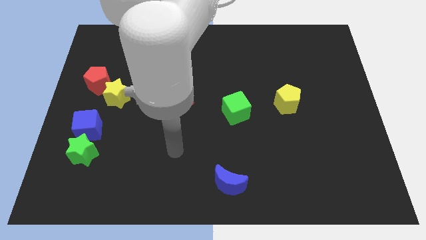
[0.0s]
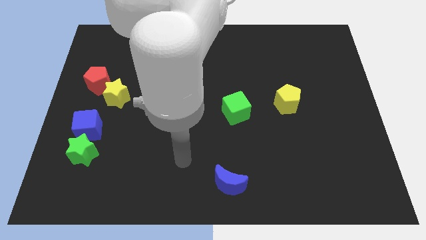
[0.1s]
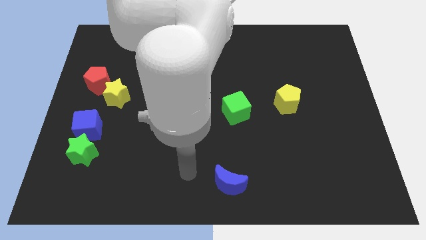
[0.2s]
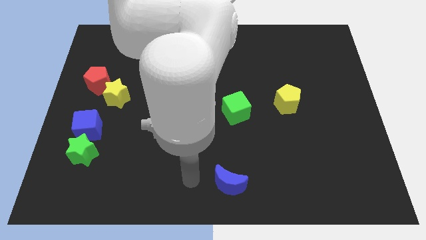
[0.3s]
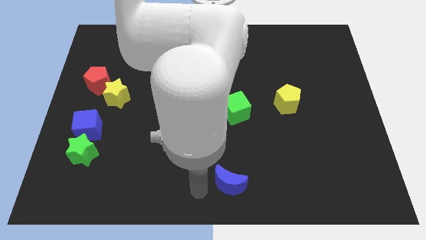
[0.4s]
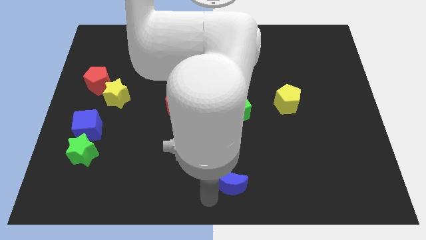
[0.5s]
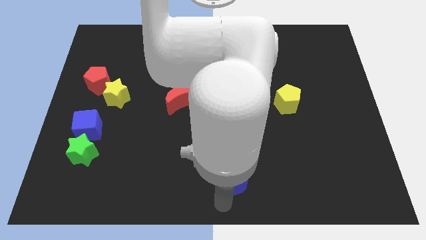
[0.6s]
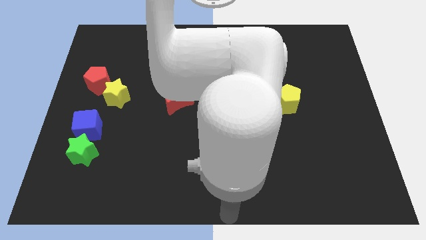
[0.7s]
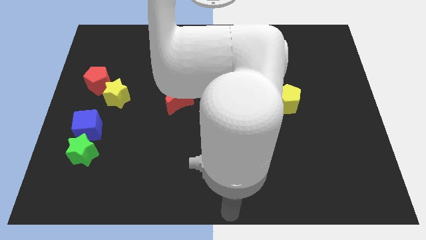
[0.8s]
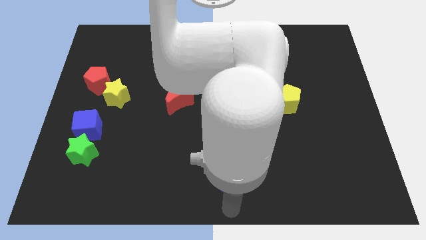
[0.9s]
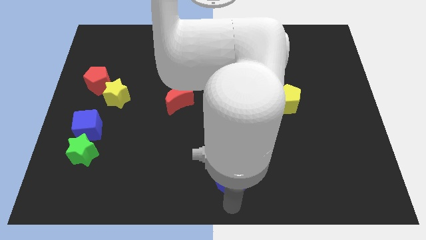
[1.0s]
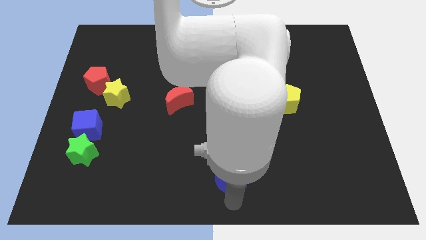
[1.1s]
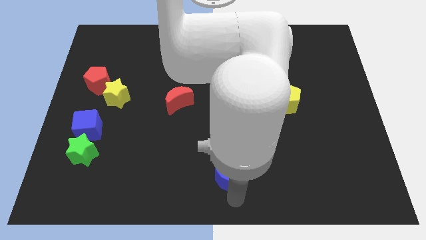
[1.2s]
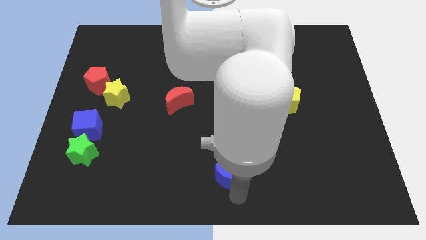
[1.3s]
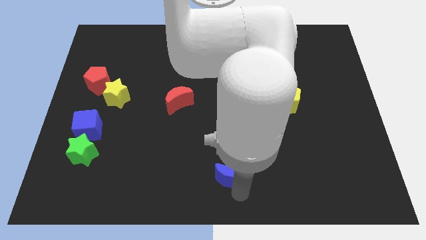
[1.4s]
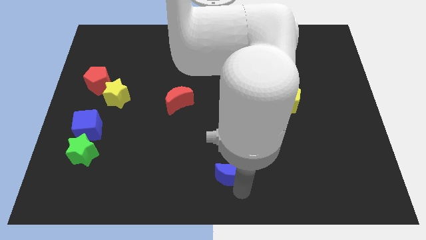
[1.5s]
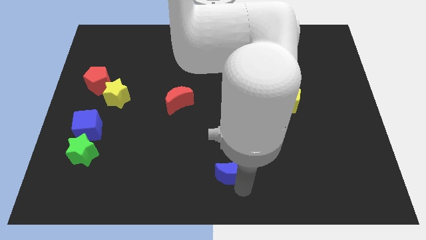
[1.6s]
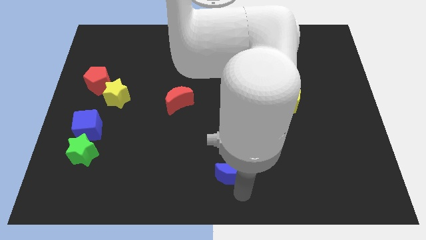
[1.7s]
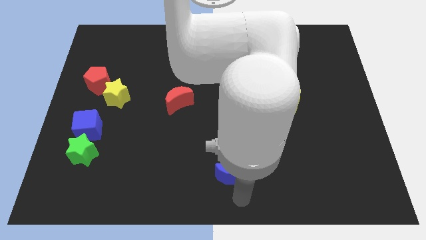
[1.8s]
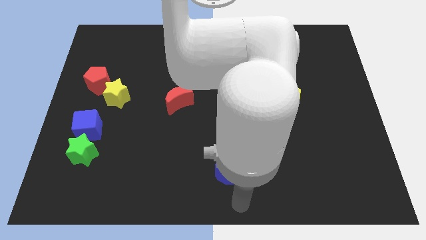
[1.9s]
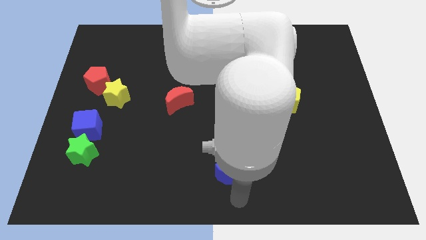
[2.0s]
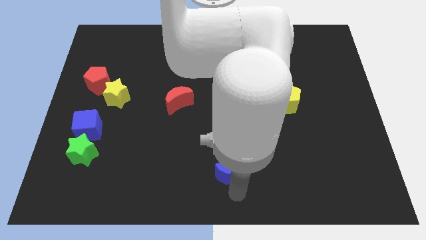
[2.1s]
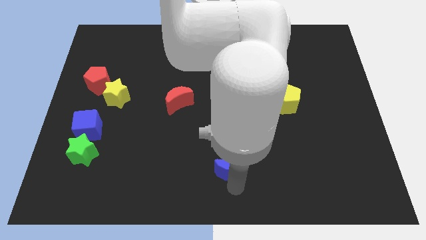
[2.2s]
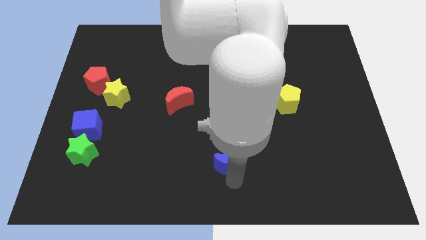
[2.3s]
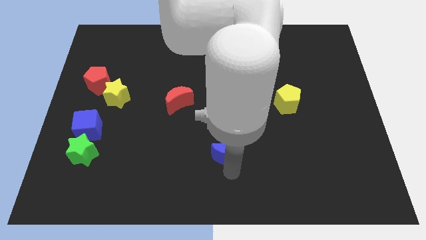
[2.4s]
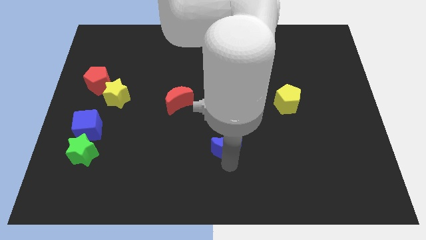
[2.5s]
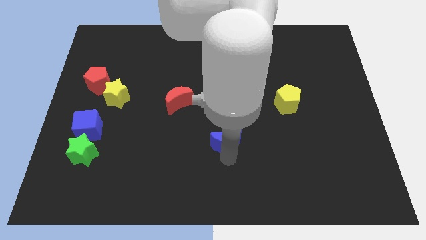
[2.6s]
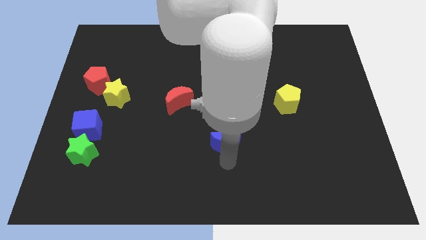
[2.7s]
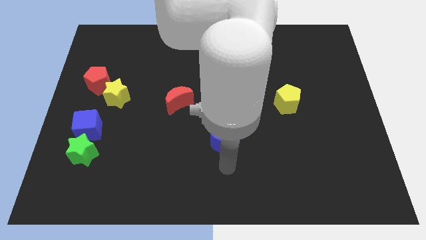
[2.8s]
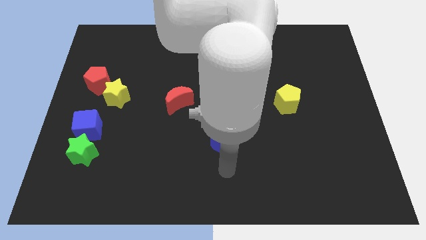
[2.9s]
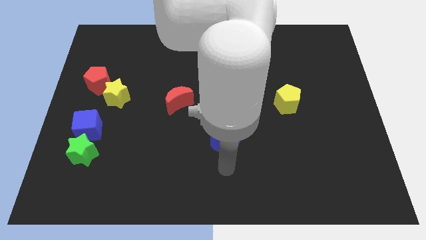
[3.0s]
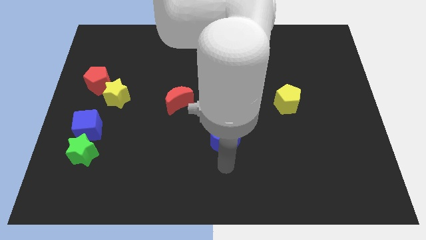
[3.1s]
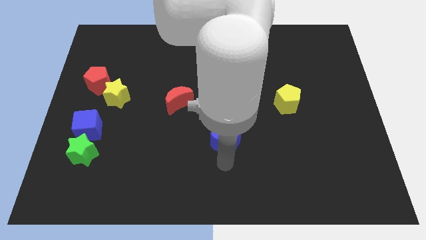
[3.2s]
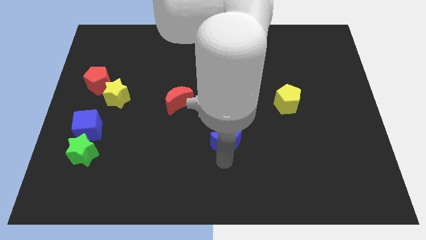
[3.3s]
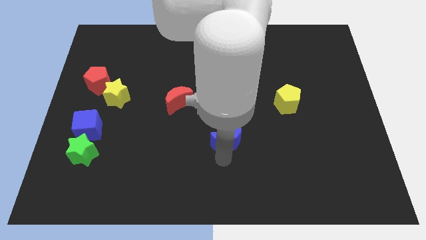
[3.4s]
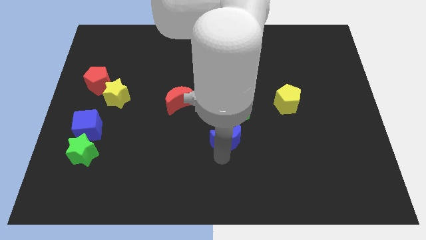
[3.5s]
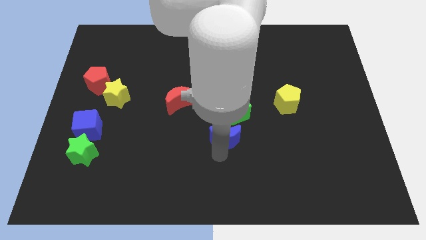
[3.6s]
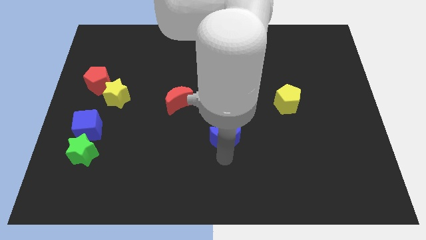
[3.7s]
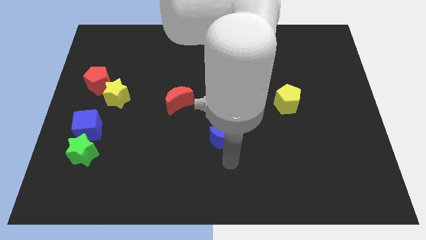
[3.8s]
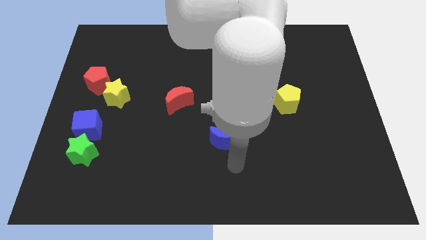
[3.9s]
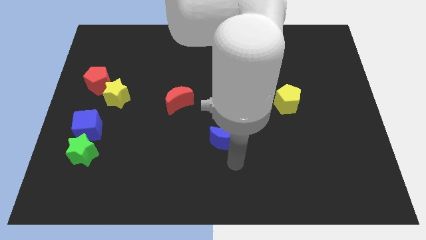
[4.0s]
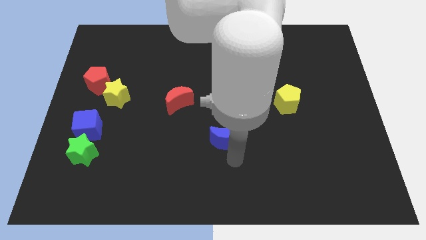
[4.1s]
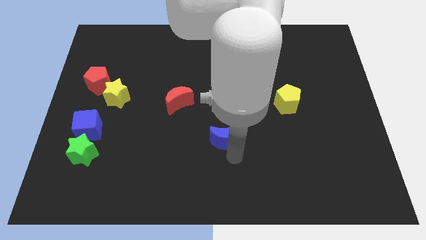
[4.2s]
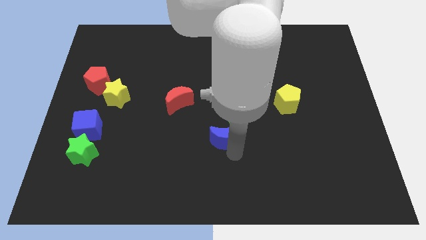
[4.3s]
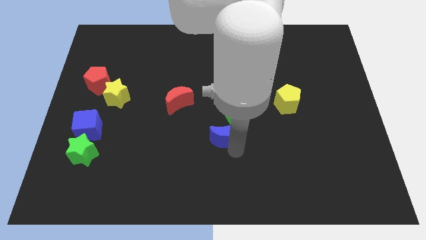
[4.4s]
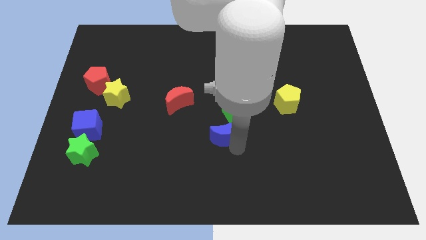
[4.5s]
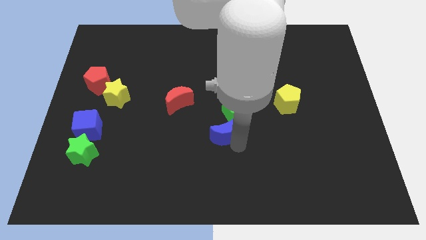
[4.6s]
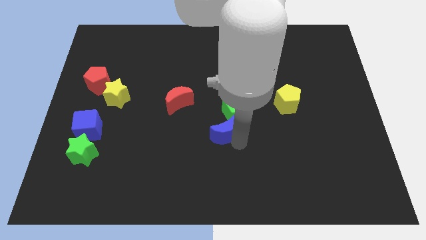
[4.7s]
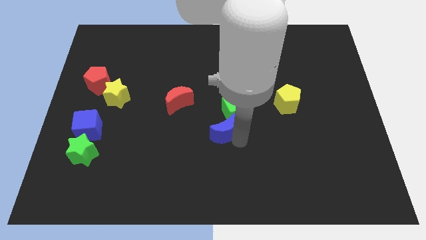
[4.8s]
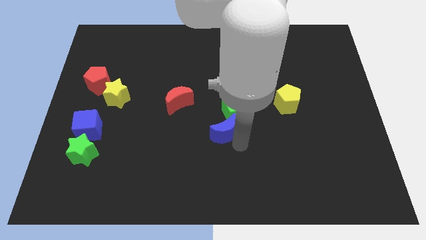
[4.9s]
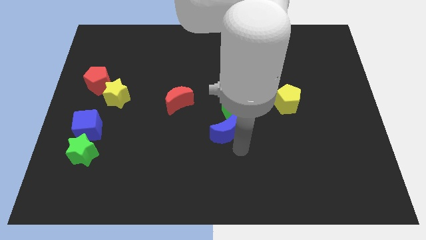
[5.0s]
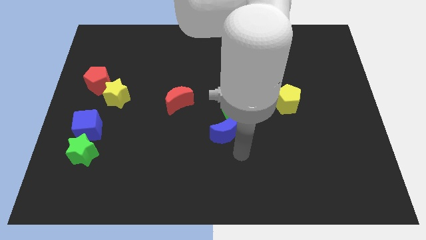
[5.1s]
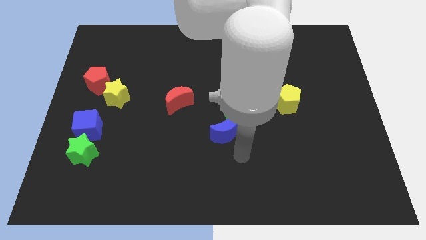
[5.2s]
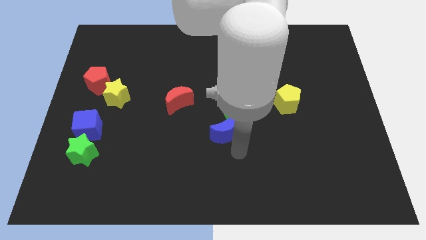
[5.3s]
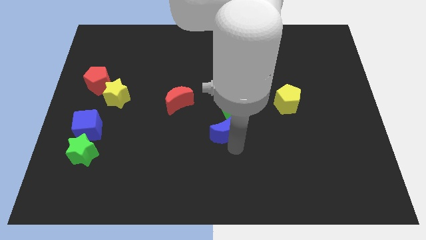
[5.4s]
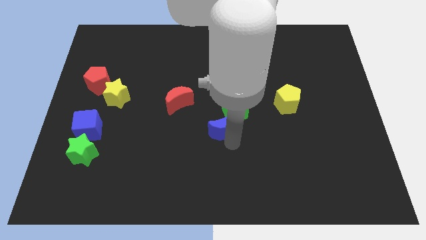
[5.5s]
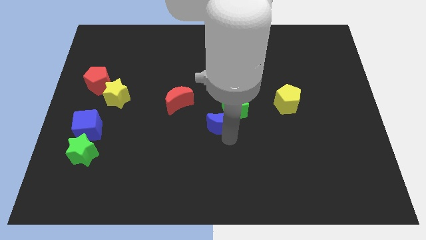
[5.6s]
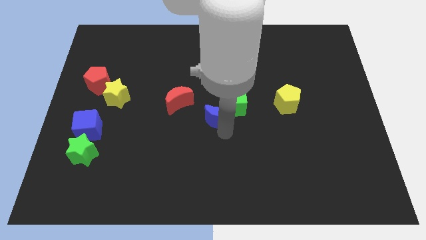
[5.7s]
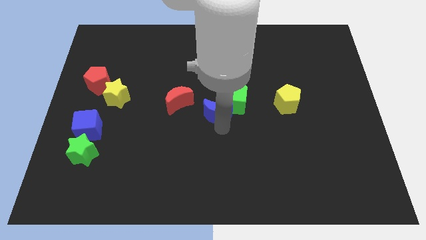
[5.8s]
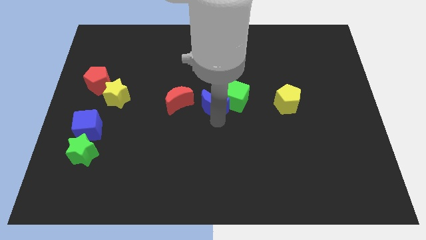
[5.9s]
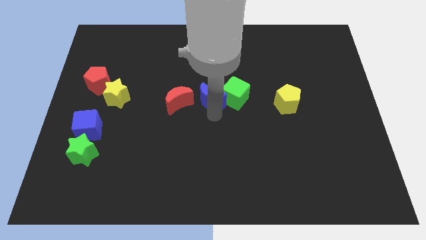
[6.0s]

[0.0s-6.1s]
push the blue moon up

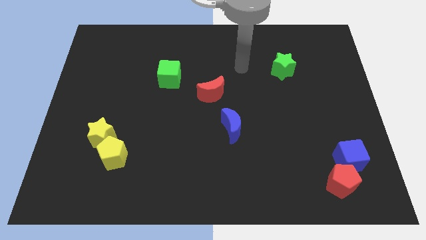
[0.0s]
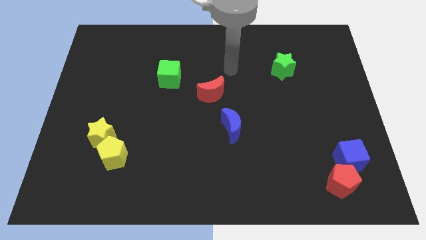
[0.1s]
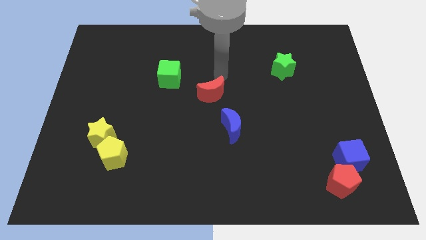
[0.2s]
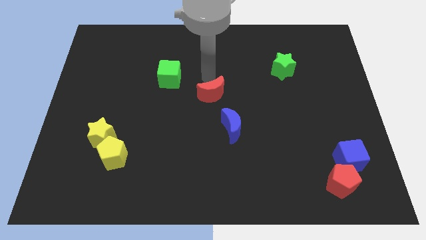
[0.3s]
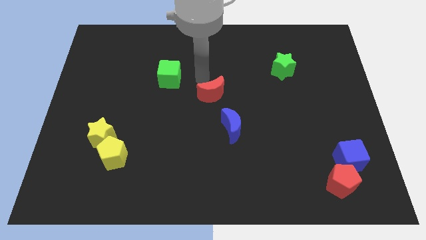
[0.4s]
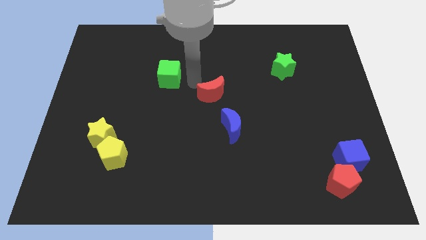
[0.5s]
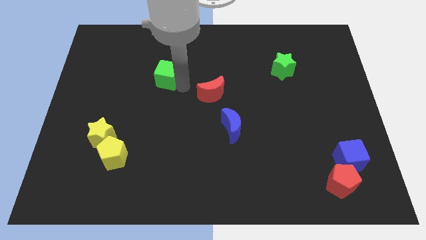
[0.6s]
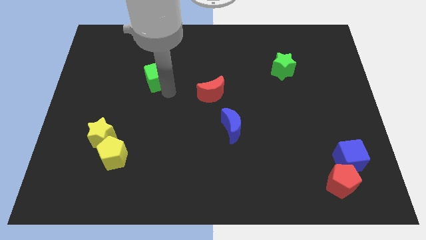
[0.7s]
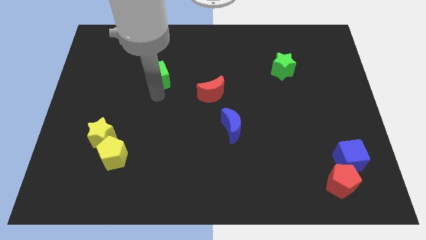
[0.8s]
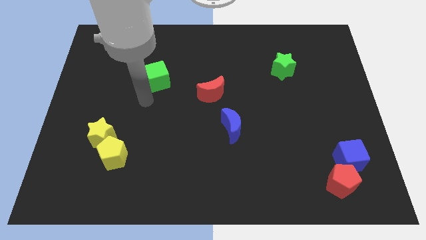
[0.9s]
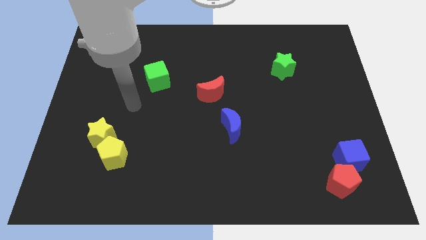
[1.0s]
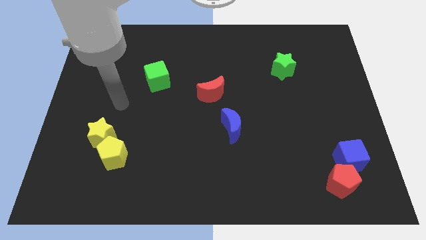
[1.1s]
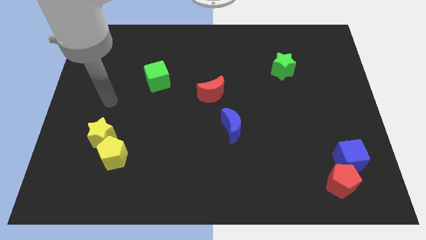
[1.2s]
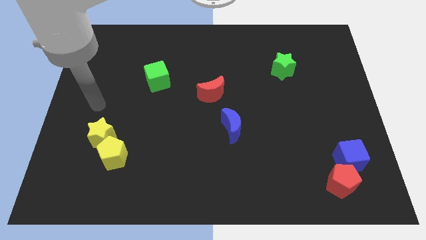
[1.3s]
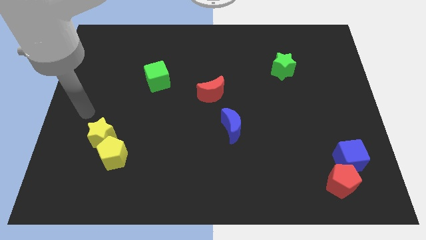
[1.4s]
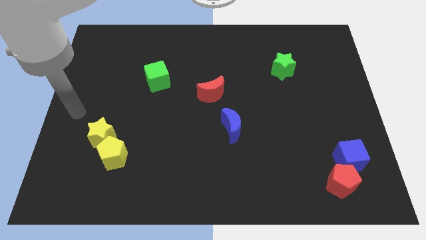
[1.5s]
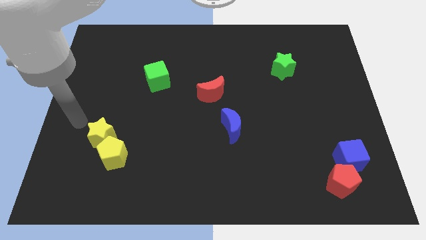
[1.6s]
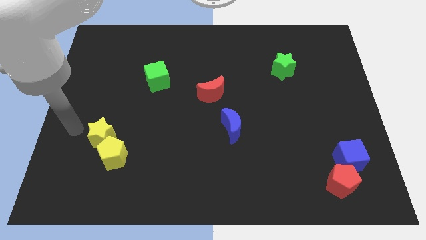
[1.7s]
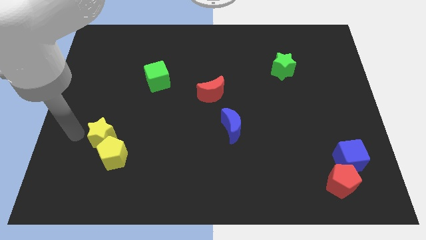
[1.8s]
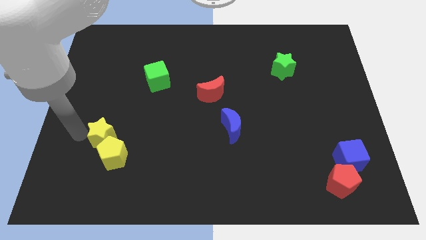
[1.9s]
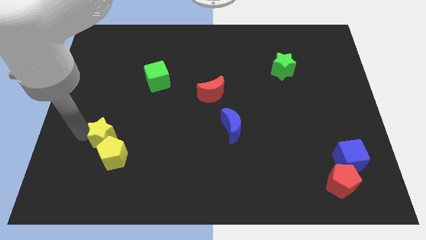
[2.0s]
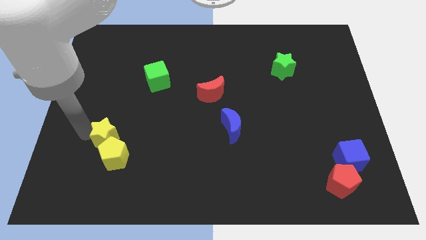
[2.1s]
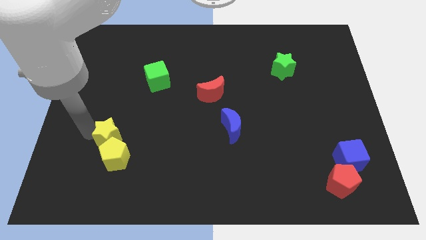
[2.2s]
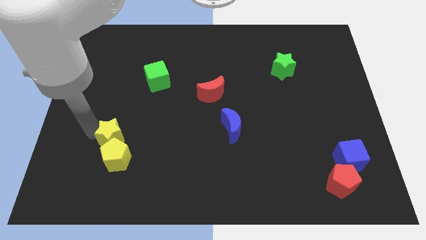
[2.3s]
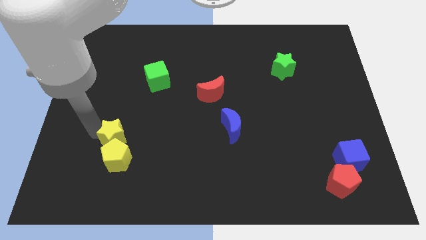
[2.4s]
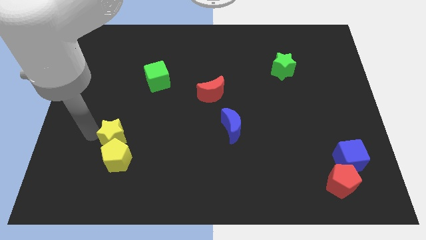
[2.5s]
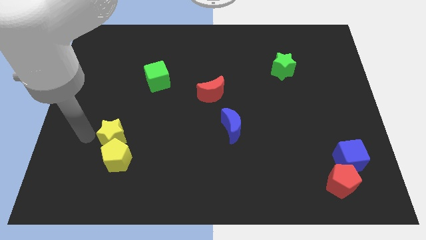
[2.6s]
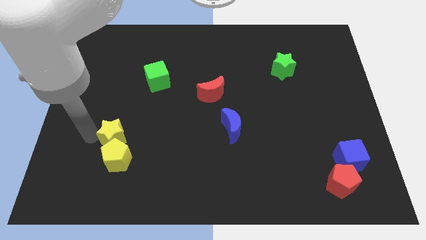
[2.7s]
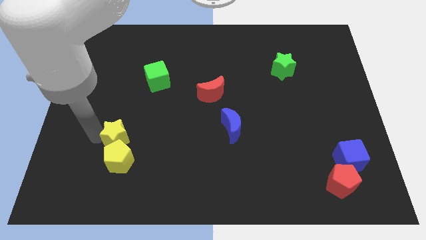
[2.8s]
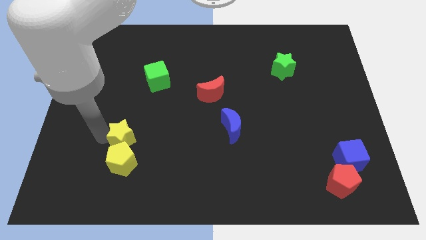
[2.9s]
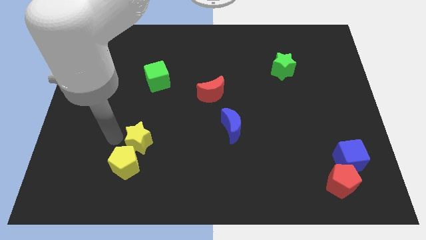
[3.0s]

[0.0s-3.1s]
slightly push the yellow star to the right
